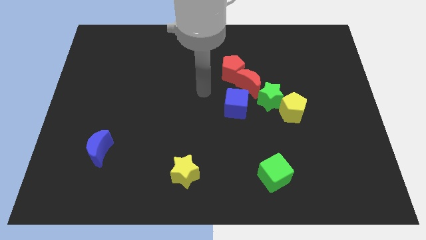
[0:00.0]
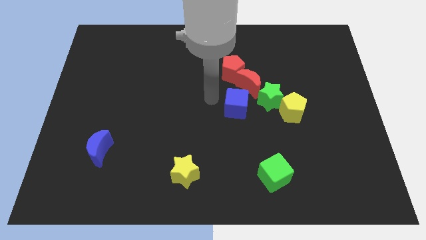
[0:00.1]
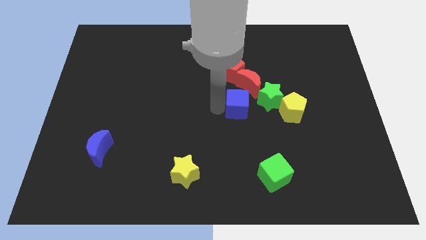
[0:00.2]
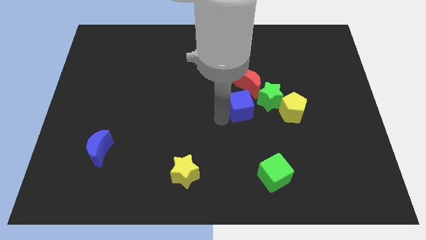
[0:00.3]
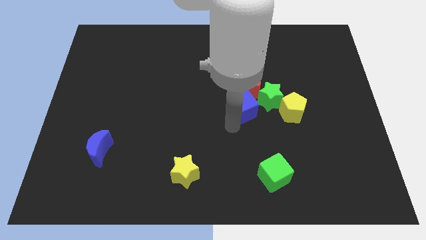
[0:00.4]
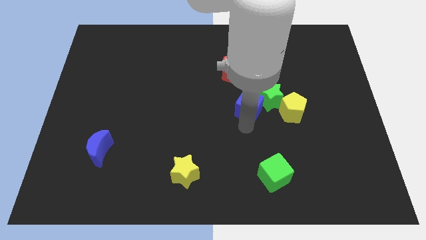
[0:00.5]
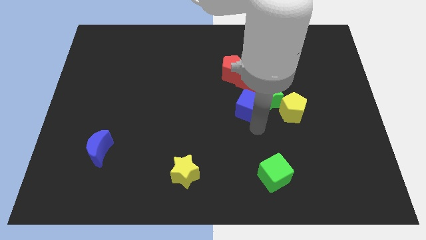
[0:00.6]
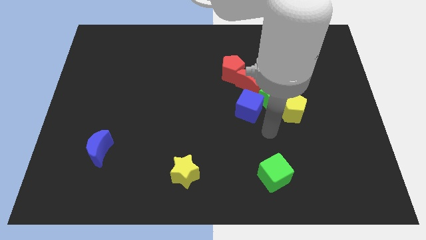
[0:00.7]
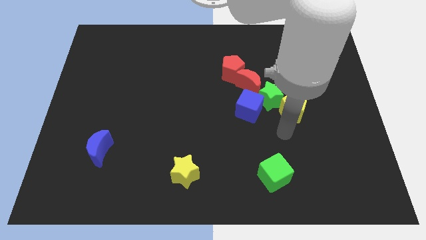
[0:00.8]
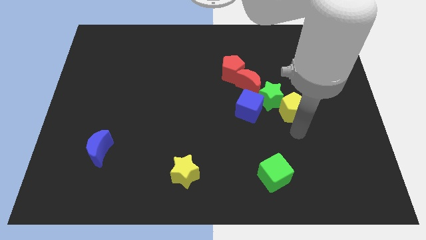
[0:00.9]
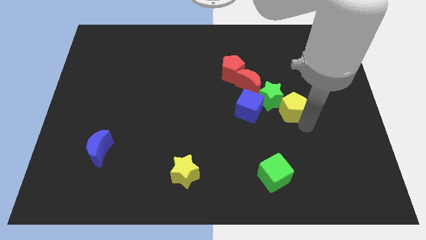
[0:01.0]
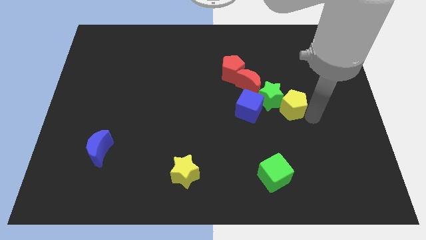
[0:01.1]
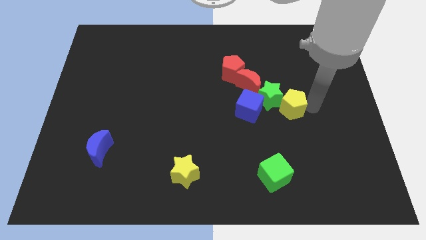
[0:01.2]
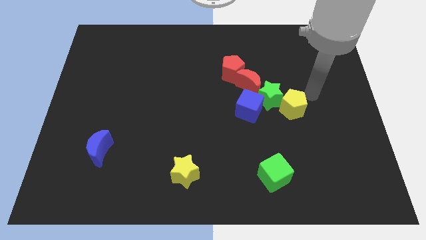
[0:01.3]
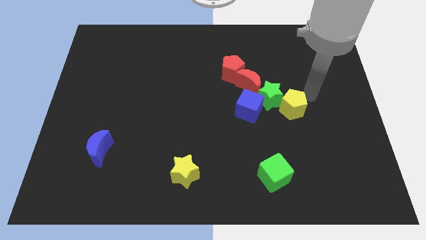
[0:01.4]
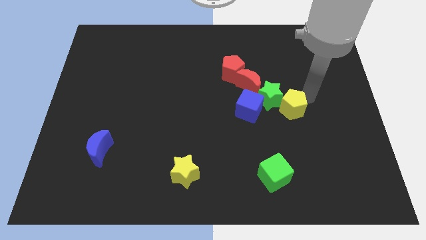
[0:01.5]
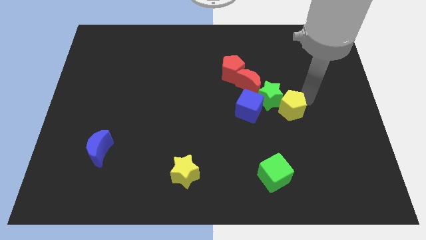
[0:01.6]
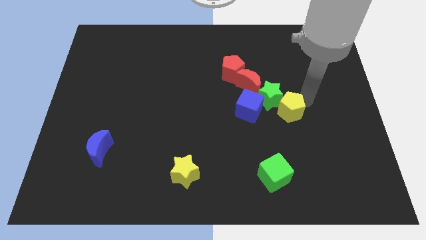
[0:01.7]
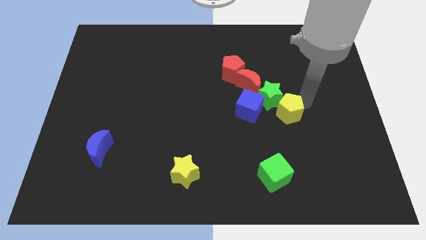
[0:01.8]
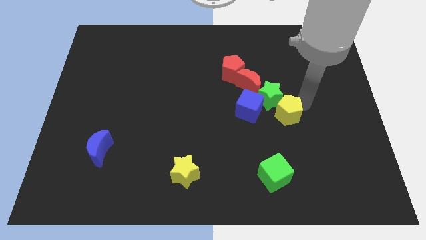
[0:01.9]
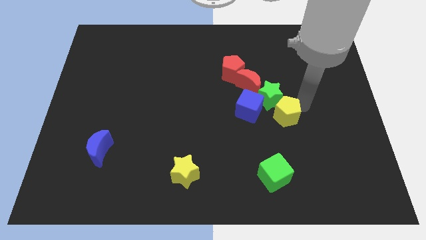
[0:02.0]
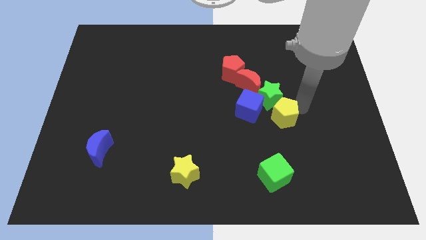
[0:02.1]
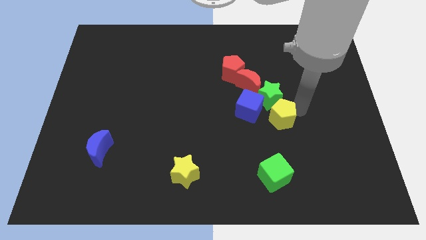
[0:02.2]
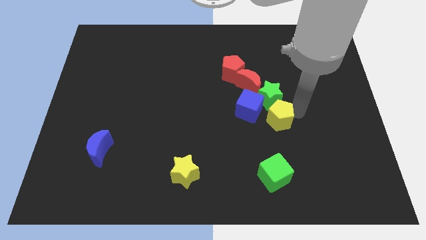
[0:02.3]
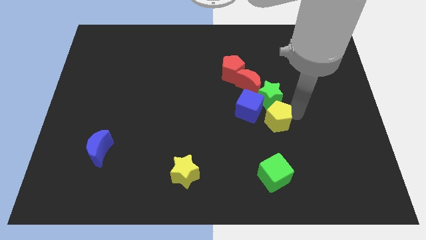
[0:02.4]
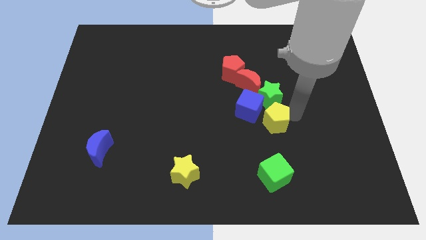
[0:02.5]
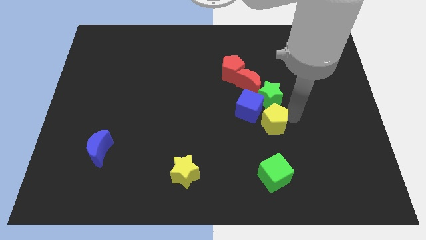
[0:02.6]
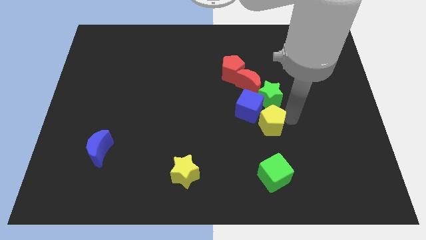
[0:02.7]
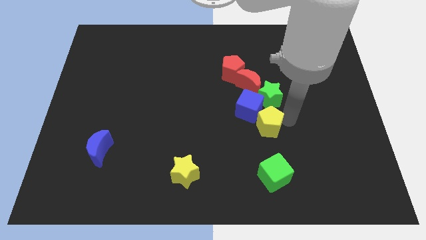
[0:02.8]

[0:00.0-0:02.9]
slide the yellow pentagon a little downwards and left

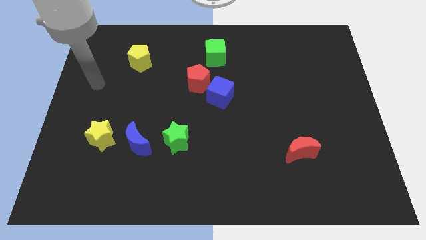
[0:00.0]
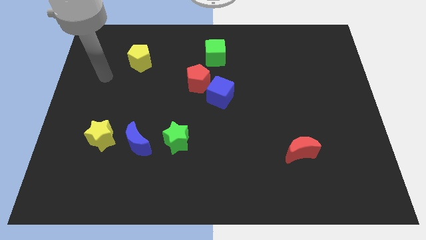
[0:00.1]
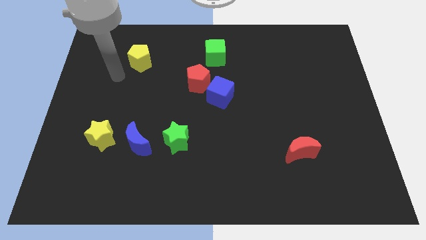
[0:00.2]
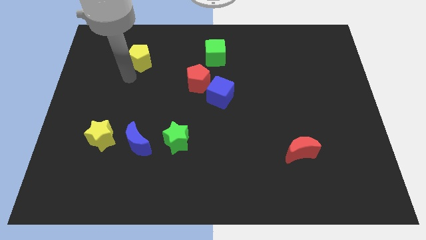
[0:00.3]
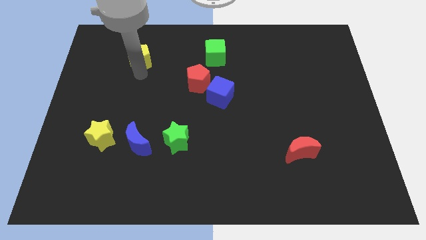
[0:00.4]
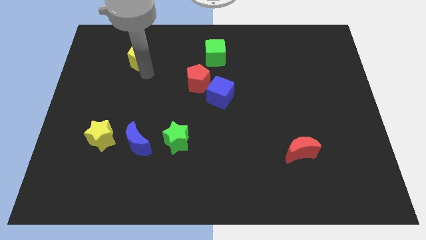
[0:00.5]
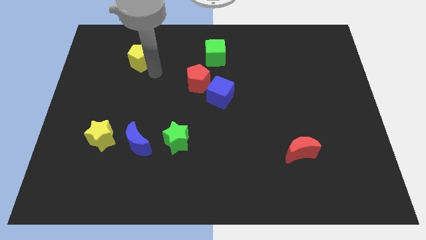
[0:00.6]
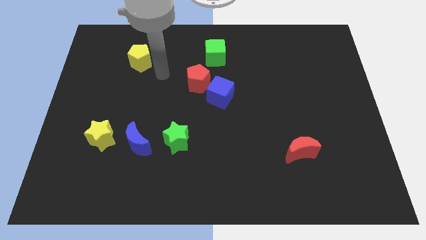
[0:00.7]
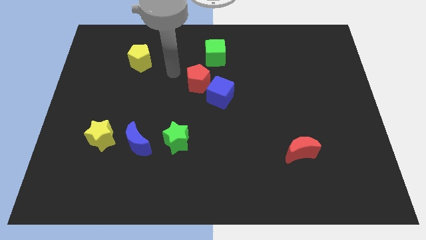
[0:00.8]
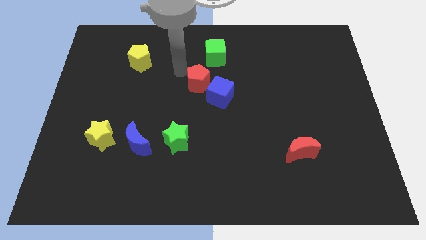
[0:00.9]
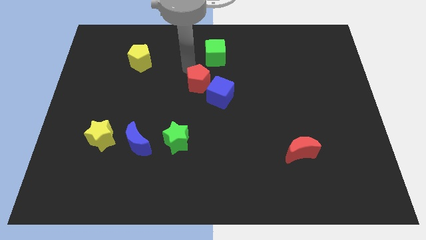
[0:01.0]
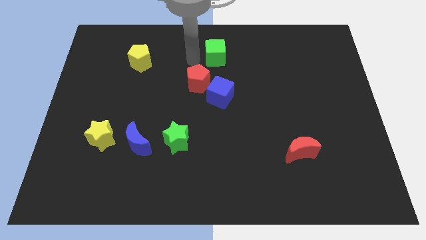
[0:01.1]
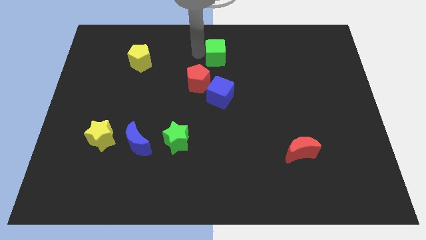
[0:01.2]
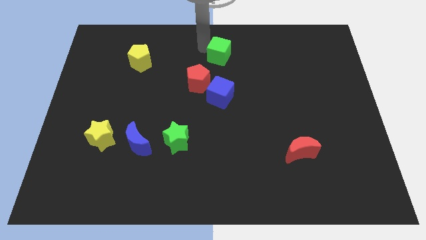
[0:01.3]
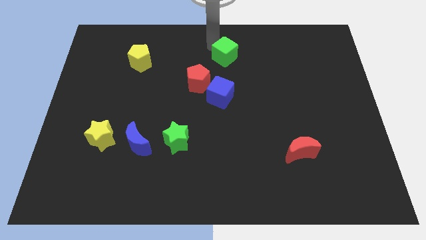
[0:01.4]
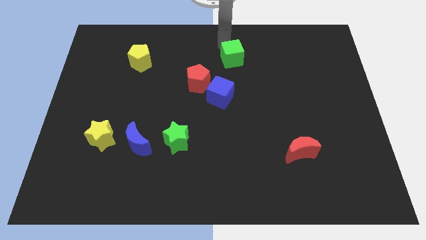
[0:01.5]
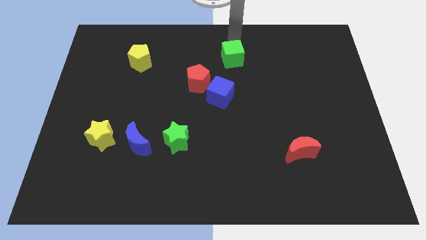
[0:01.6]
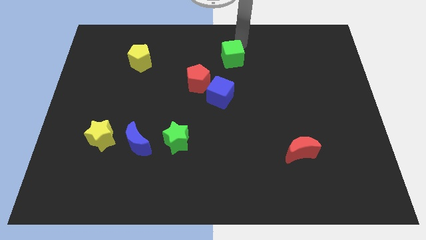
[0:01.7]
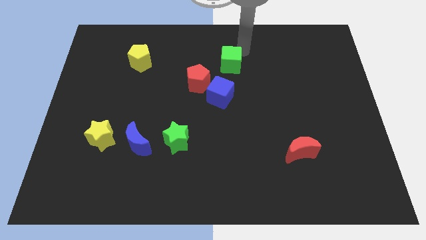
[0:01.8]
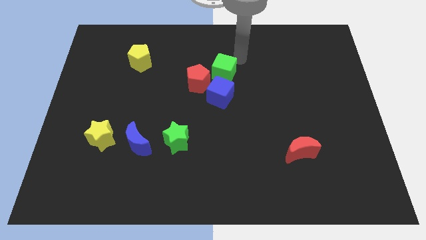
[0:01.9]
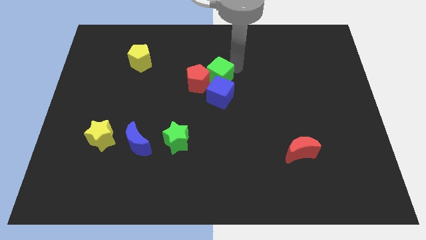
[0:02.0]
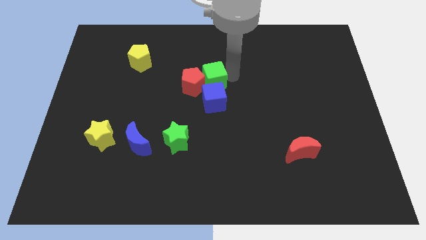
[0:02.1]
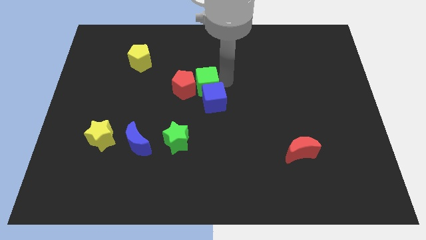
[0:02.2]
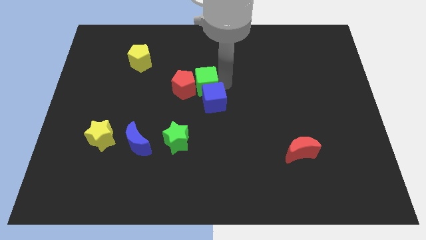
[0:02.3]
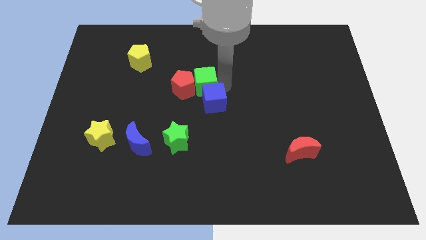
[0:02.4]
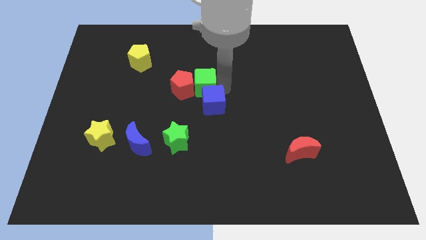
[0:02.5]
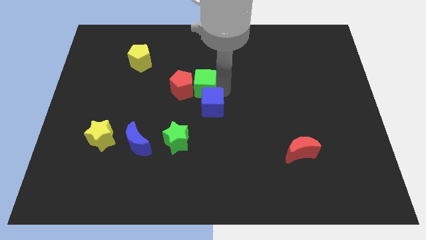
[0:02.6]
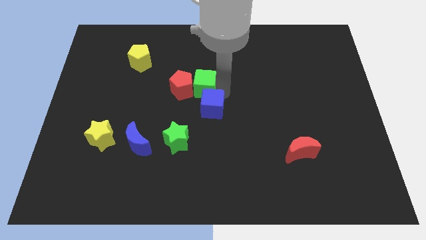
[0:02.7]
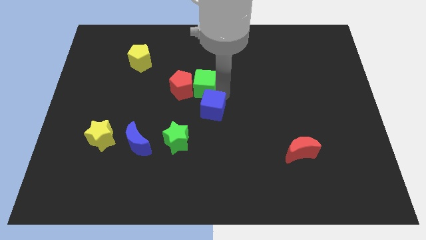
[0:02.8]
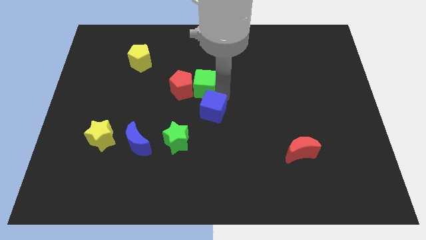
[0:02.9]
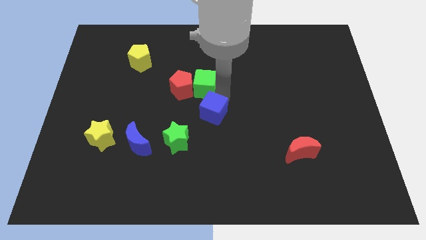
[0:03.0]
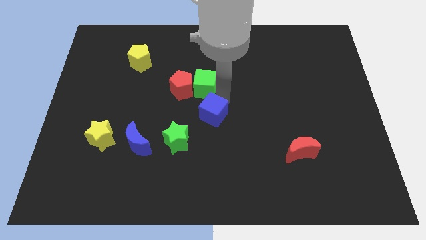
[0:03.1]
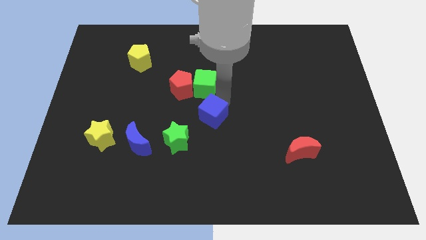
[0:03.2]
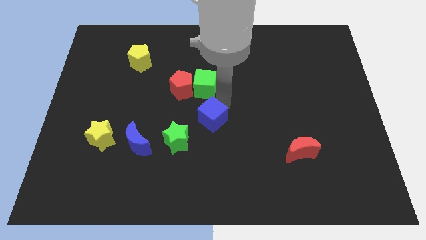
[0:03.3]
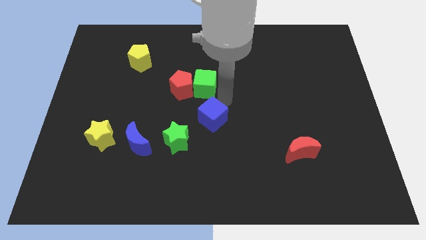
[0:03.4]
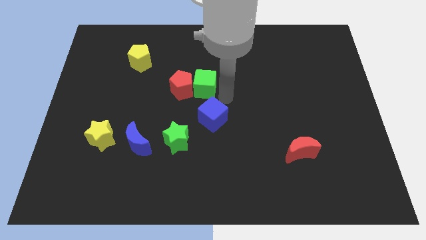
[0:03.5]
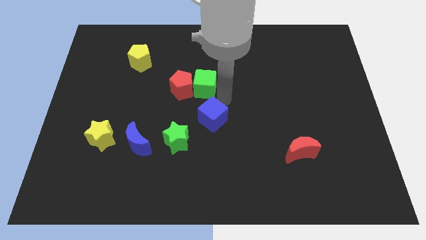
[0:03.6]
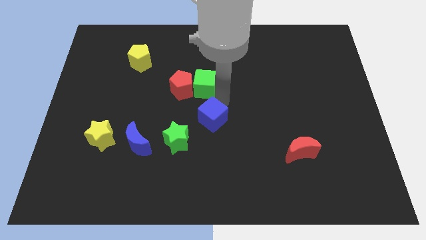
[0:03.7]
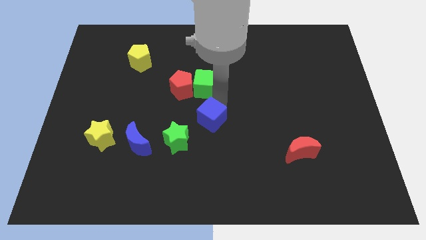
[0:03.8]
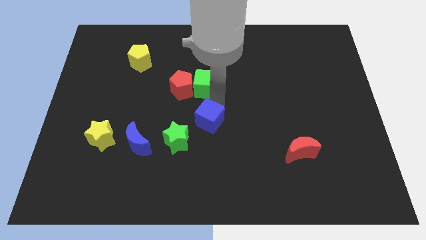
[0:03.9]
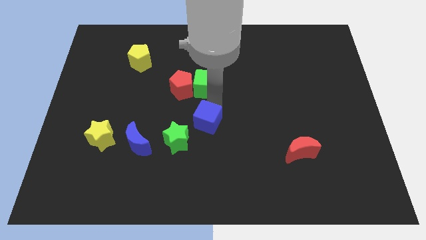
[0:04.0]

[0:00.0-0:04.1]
slightly slide the blue cube downwards and to the left

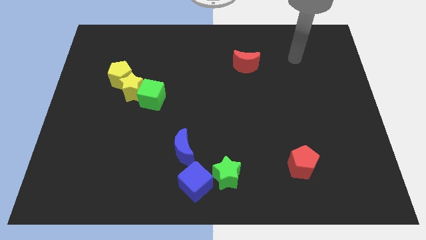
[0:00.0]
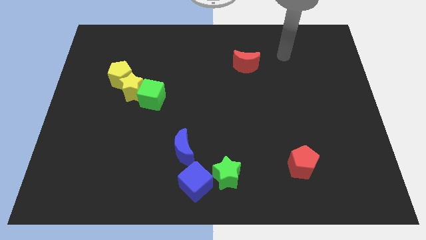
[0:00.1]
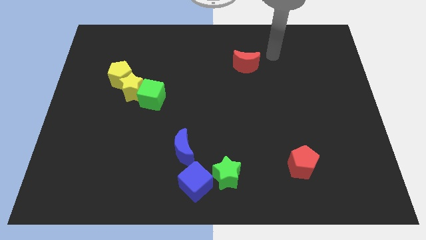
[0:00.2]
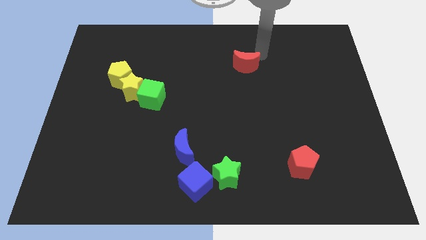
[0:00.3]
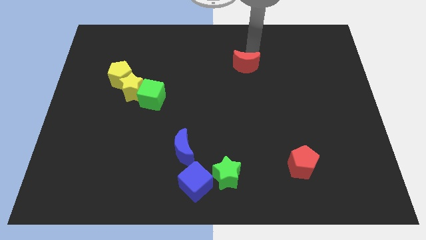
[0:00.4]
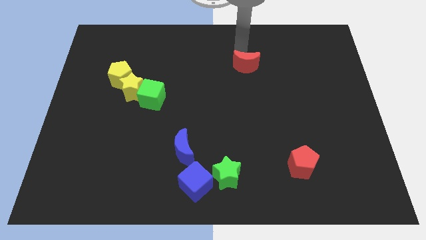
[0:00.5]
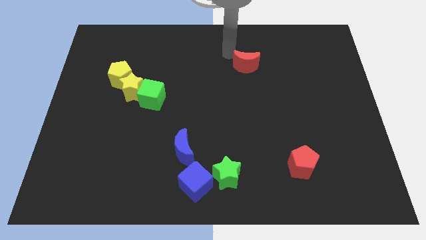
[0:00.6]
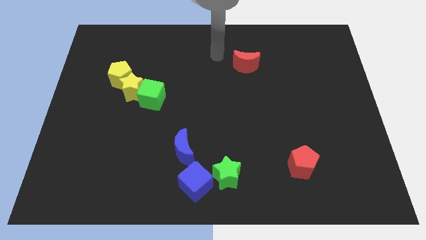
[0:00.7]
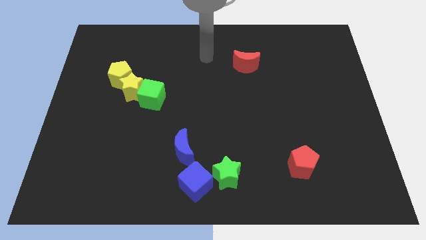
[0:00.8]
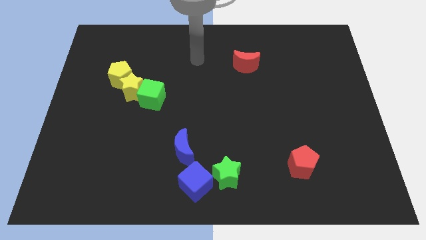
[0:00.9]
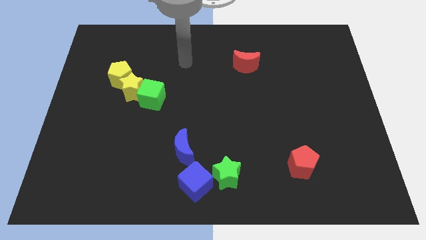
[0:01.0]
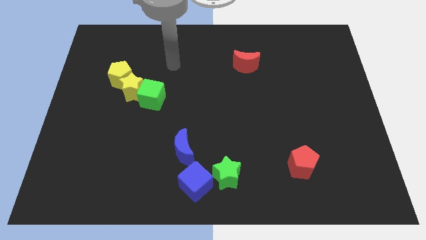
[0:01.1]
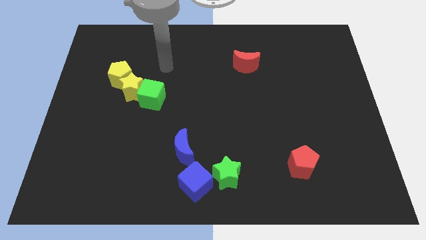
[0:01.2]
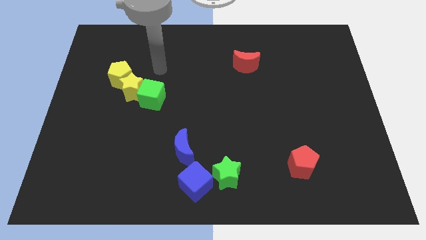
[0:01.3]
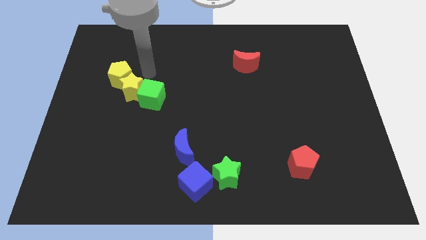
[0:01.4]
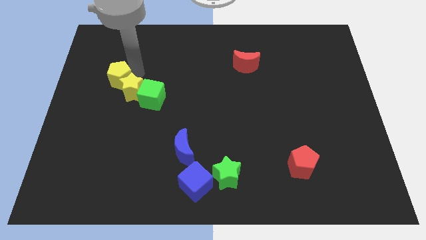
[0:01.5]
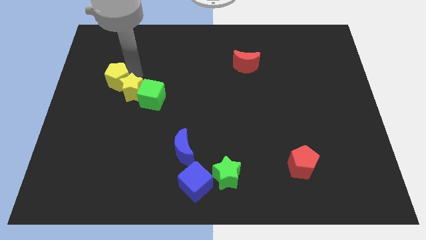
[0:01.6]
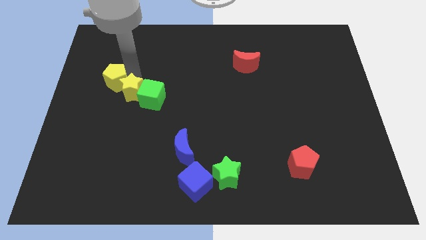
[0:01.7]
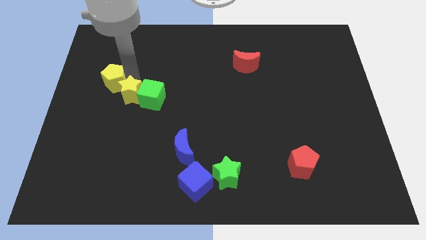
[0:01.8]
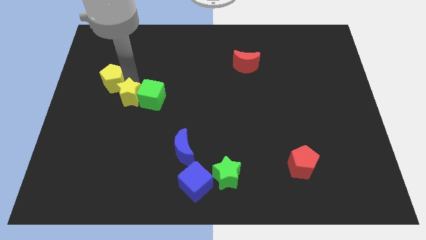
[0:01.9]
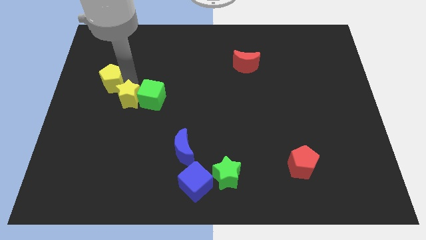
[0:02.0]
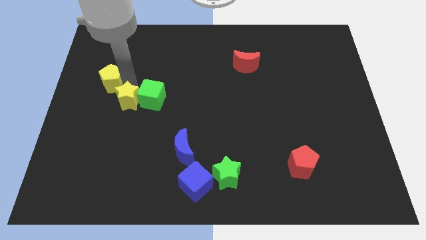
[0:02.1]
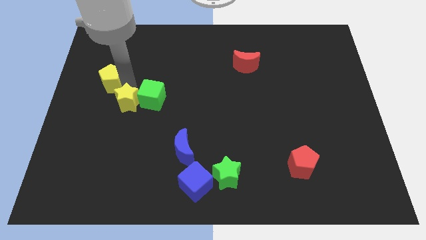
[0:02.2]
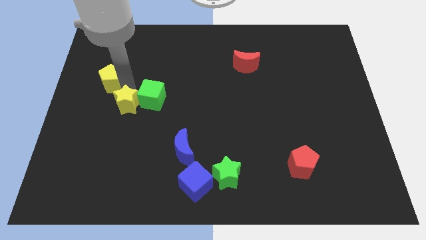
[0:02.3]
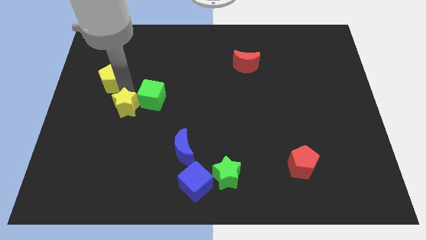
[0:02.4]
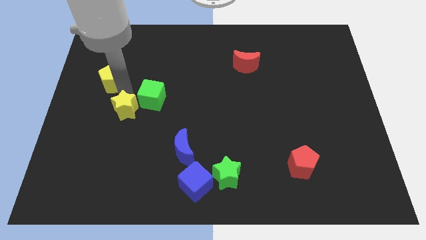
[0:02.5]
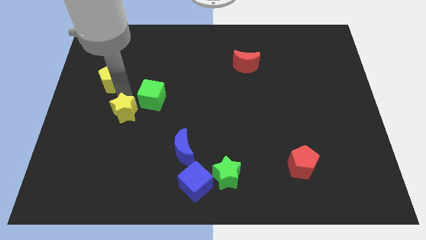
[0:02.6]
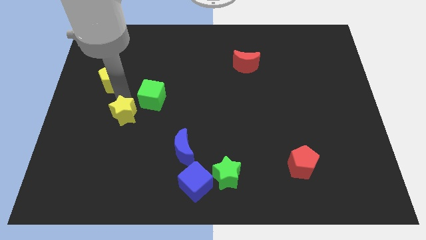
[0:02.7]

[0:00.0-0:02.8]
push the yellow star down slightly
